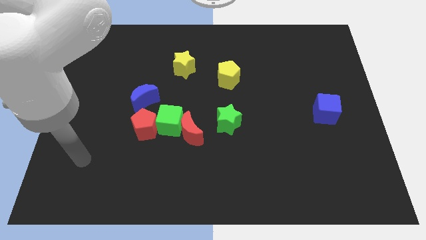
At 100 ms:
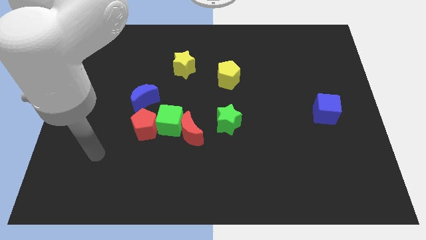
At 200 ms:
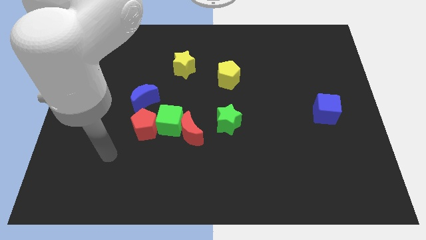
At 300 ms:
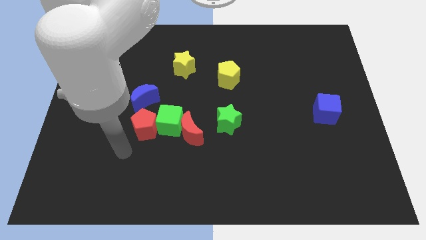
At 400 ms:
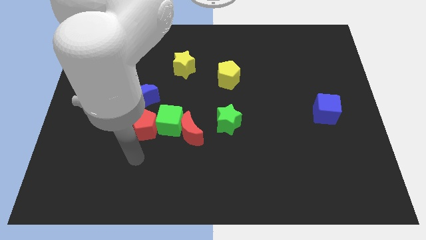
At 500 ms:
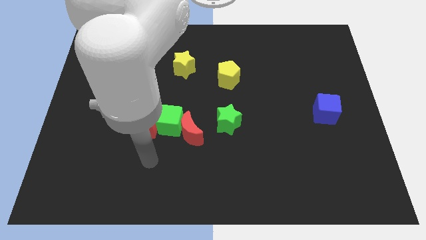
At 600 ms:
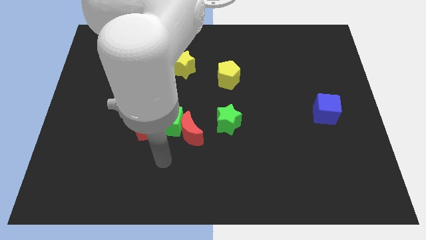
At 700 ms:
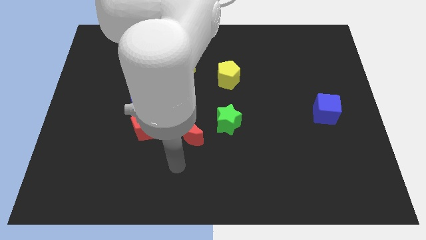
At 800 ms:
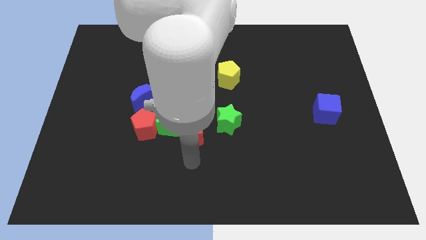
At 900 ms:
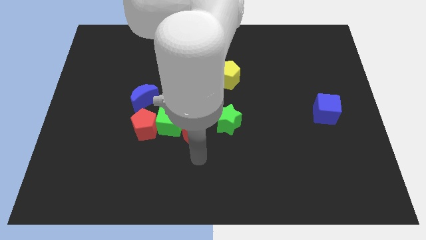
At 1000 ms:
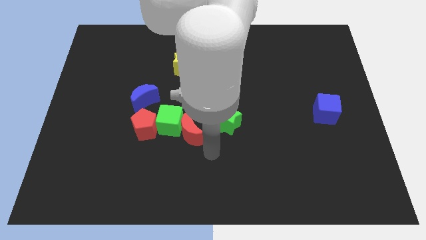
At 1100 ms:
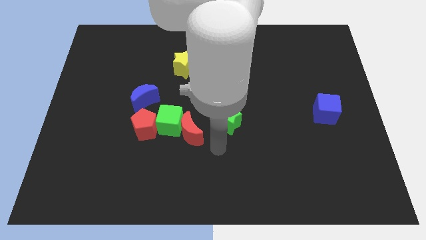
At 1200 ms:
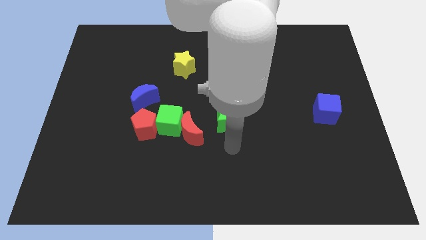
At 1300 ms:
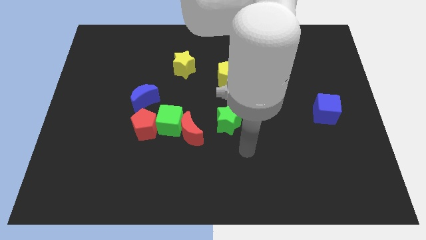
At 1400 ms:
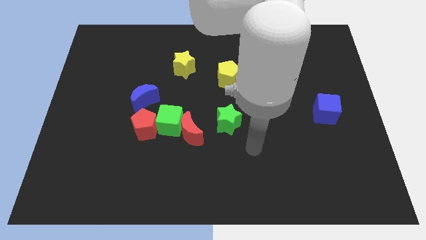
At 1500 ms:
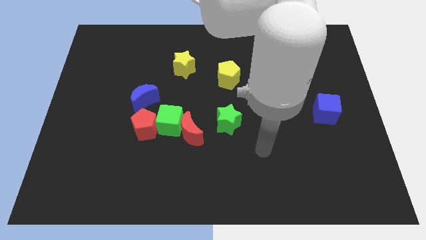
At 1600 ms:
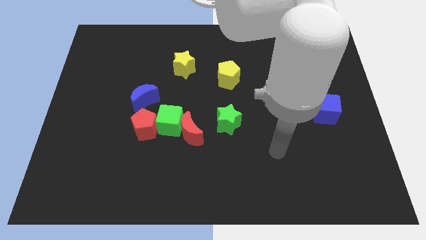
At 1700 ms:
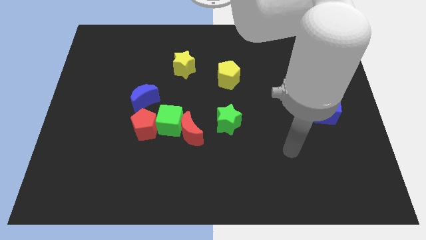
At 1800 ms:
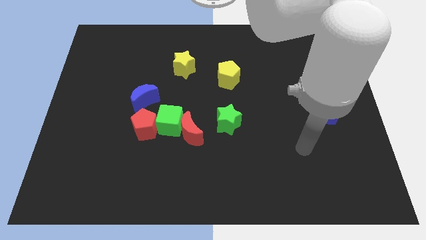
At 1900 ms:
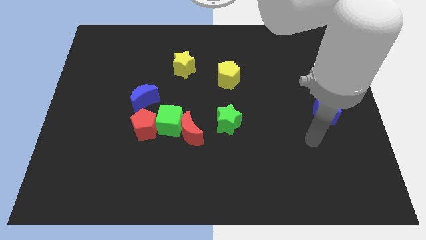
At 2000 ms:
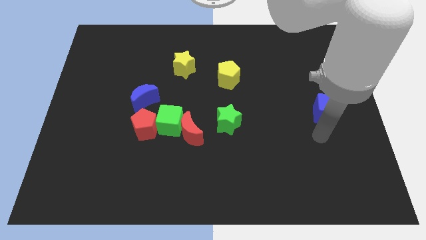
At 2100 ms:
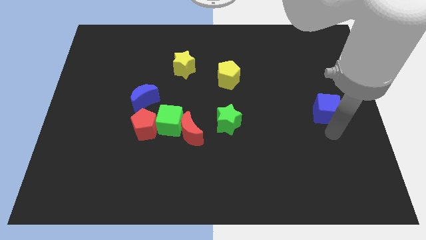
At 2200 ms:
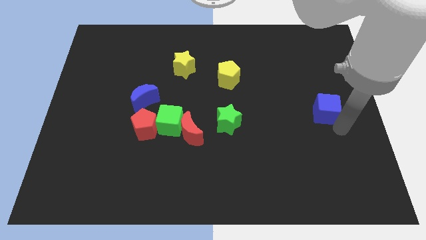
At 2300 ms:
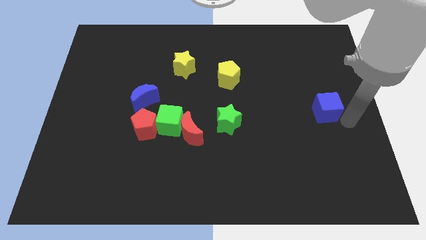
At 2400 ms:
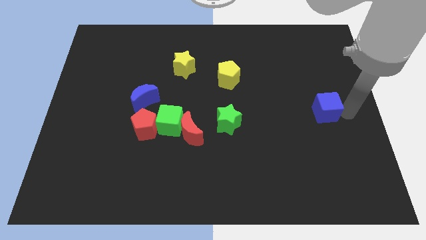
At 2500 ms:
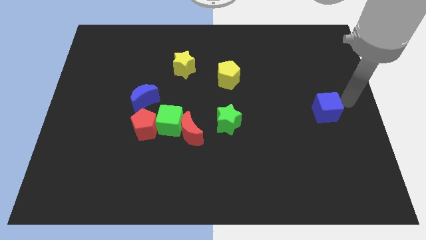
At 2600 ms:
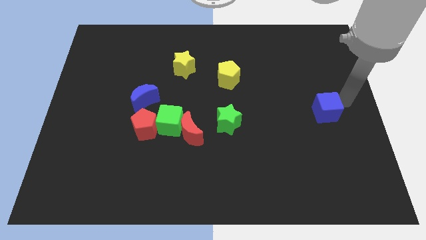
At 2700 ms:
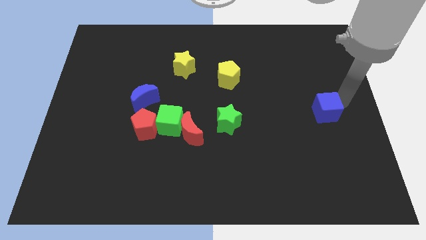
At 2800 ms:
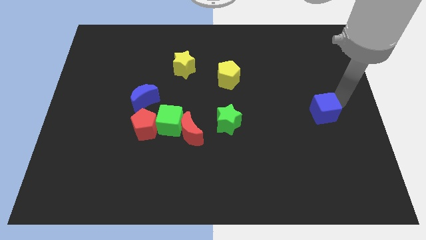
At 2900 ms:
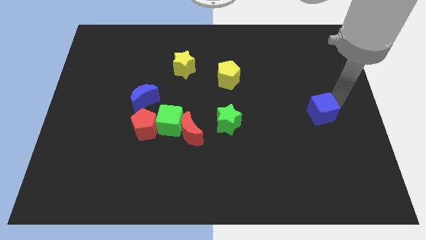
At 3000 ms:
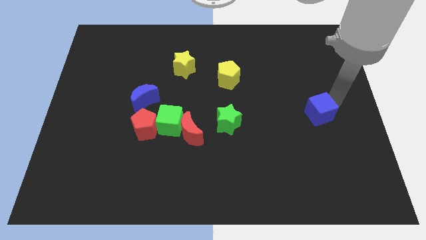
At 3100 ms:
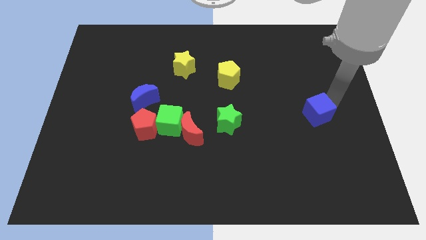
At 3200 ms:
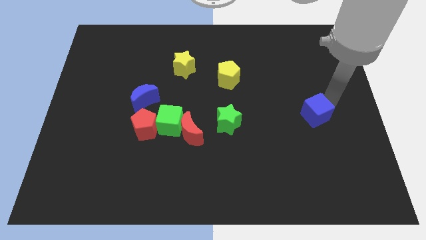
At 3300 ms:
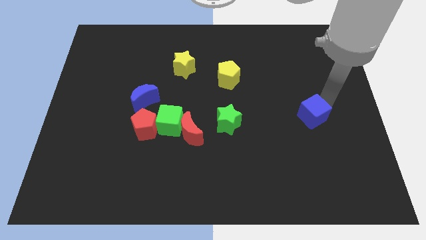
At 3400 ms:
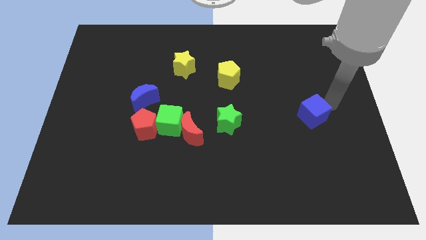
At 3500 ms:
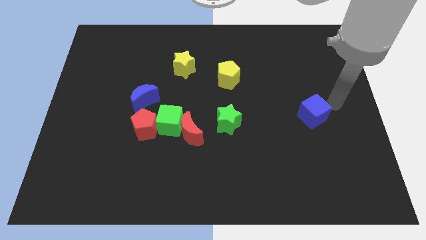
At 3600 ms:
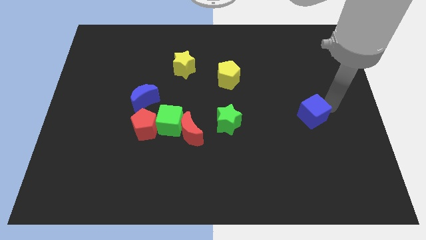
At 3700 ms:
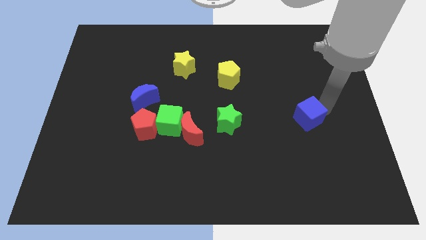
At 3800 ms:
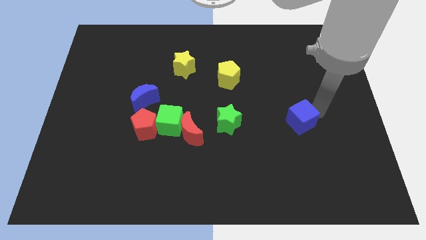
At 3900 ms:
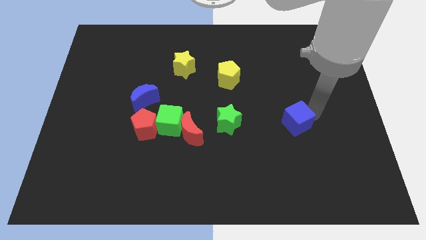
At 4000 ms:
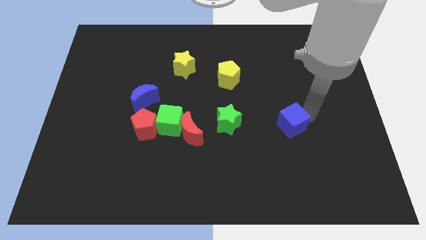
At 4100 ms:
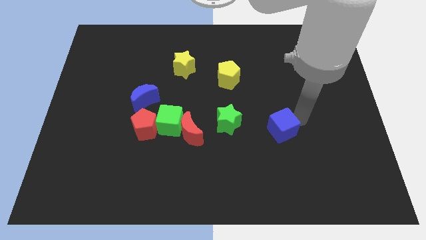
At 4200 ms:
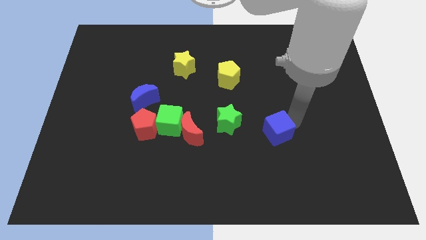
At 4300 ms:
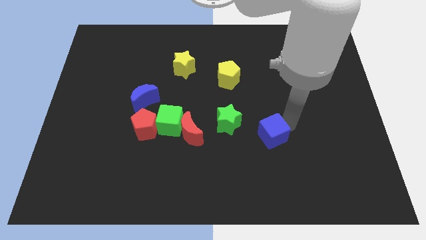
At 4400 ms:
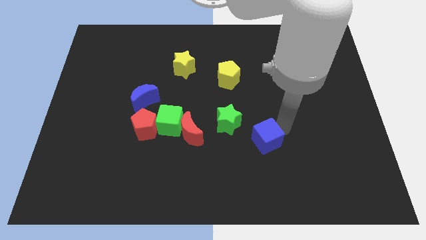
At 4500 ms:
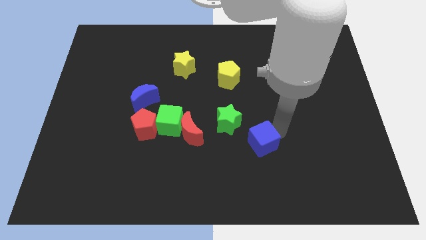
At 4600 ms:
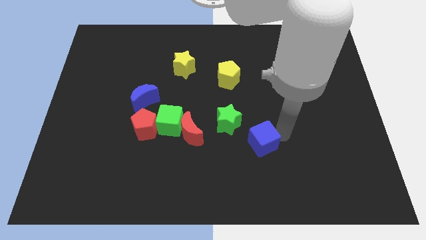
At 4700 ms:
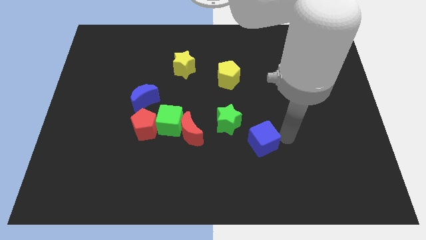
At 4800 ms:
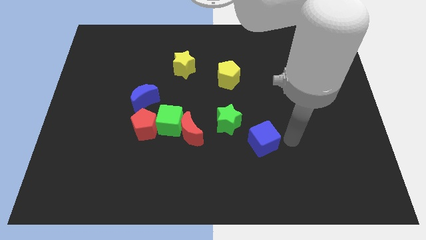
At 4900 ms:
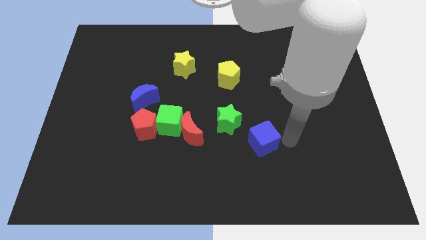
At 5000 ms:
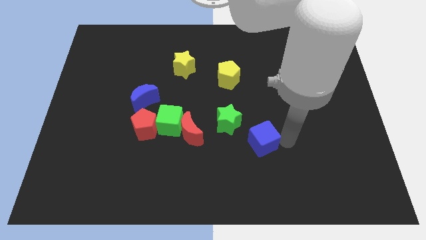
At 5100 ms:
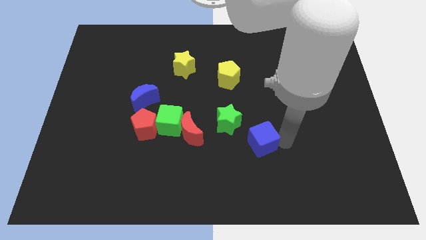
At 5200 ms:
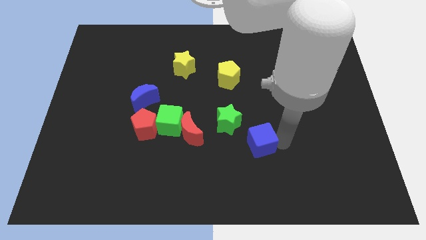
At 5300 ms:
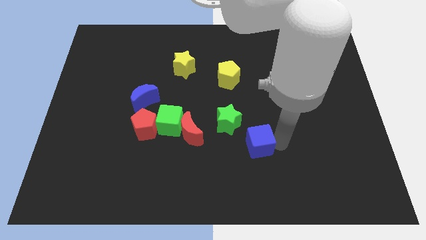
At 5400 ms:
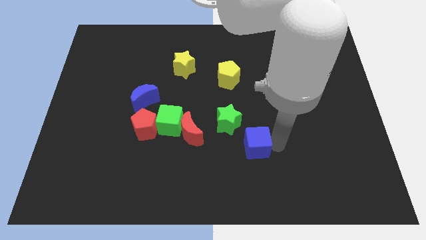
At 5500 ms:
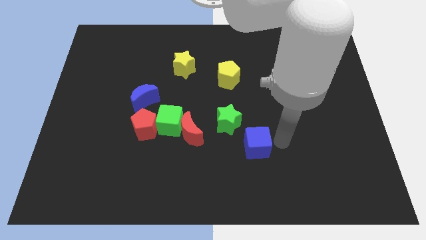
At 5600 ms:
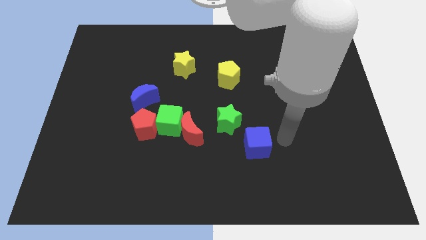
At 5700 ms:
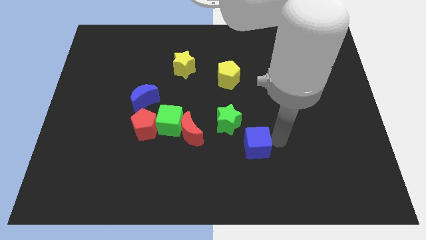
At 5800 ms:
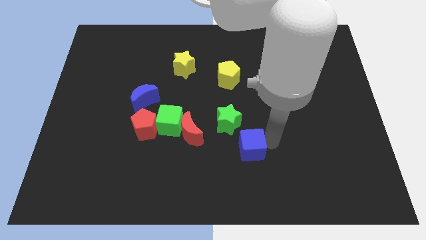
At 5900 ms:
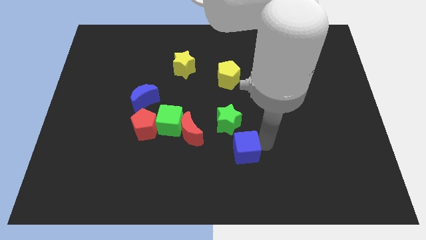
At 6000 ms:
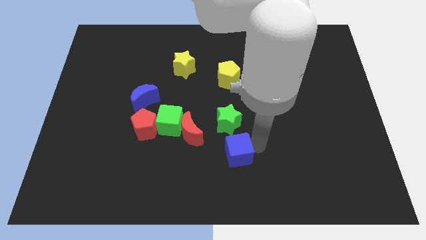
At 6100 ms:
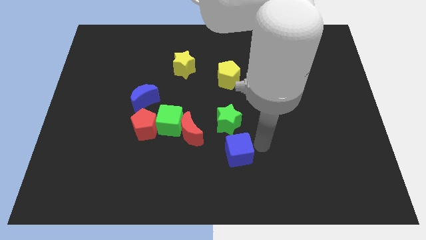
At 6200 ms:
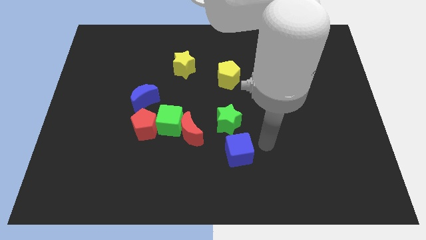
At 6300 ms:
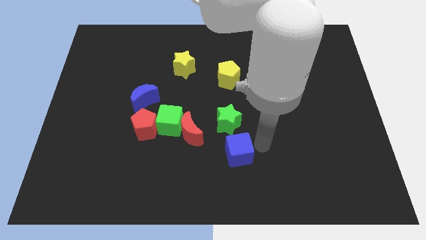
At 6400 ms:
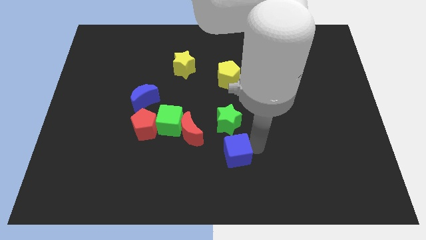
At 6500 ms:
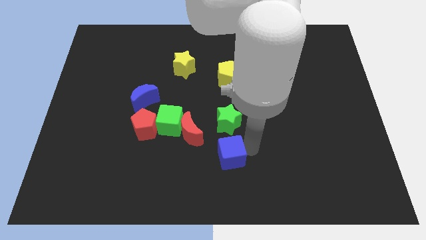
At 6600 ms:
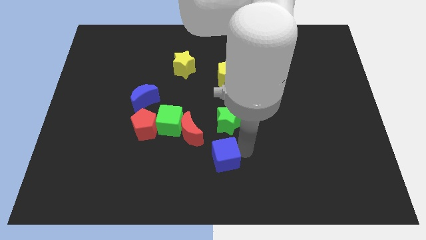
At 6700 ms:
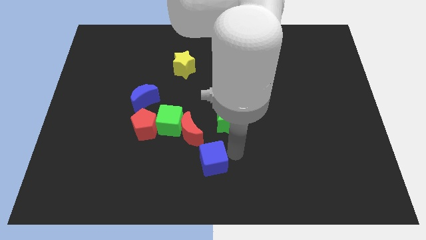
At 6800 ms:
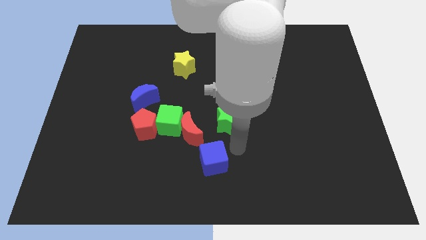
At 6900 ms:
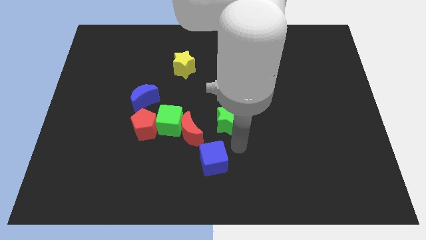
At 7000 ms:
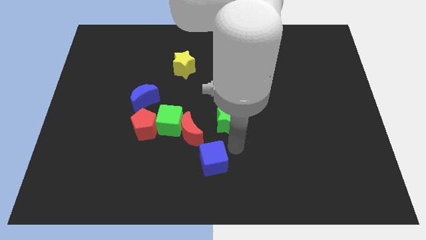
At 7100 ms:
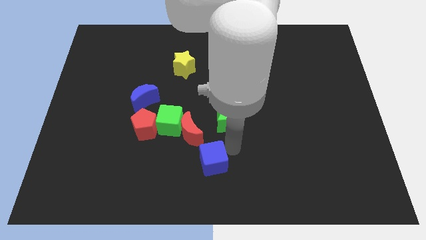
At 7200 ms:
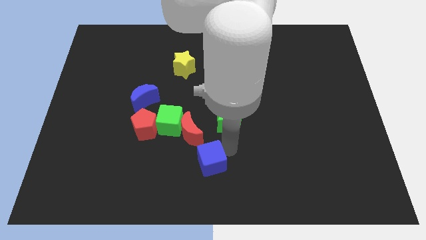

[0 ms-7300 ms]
slide the blue cube to the bottom side of the red moon
